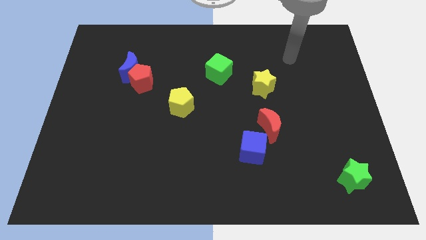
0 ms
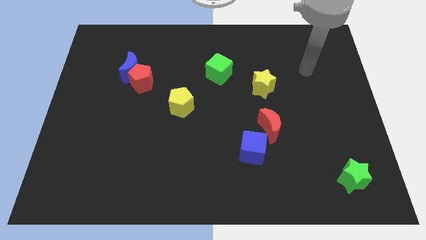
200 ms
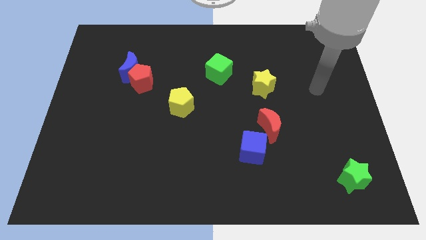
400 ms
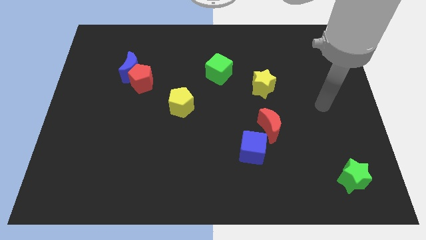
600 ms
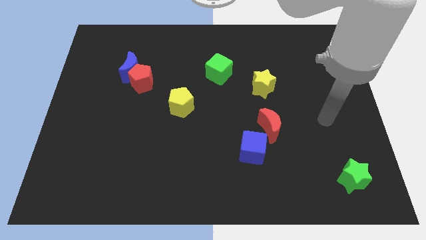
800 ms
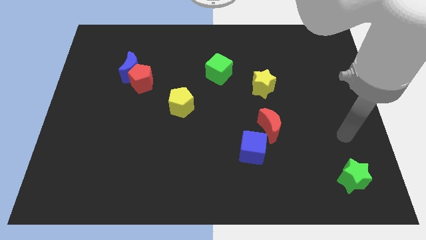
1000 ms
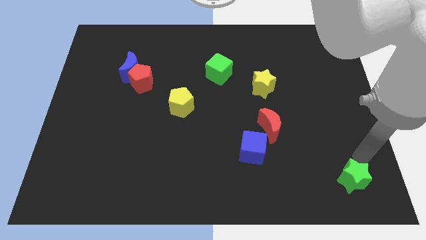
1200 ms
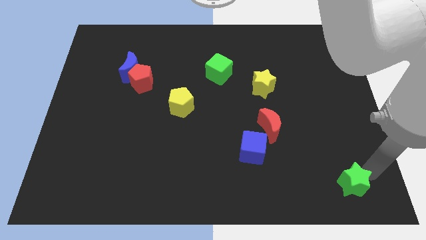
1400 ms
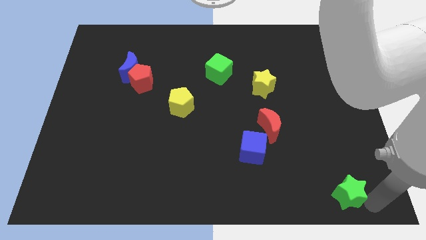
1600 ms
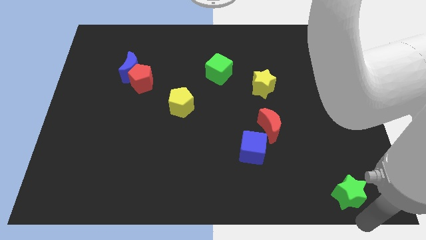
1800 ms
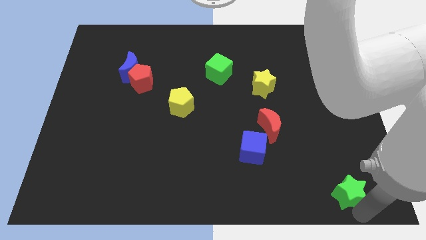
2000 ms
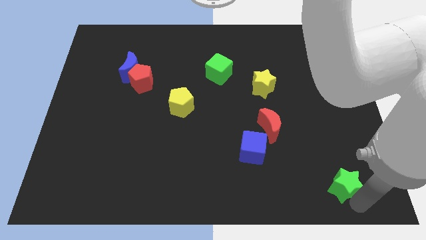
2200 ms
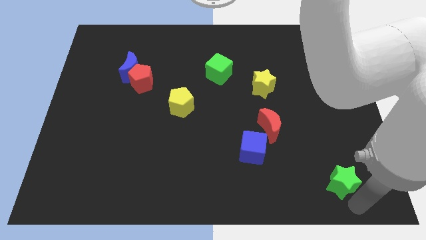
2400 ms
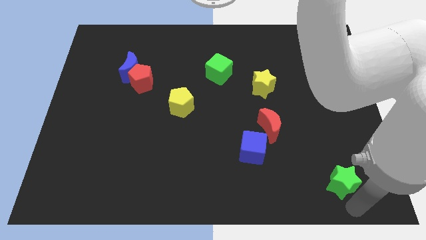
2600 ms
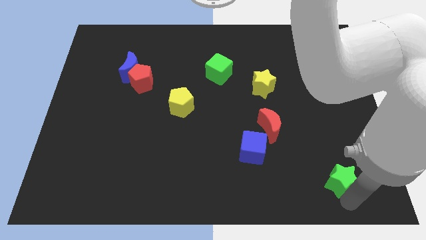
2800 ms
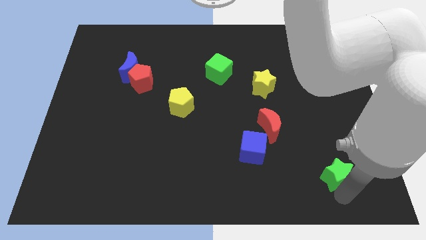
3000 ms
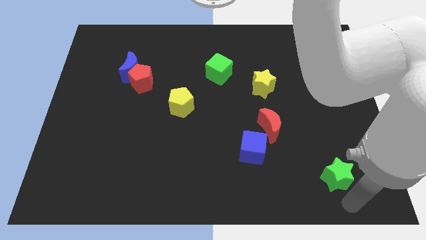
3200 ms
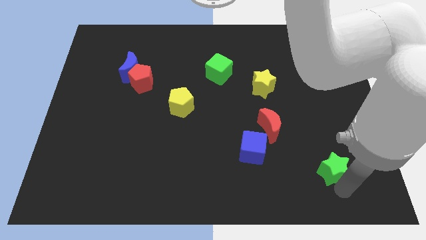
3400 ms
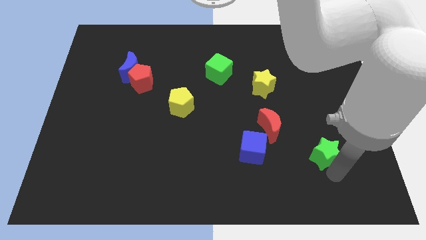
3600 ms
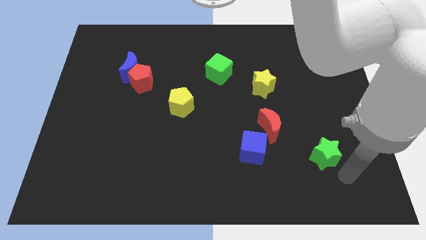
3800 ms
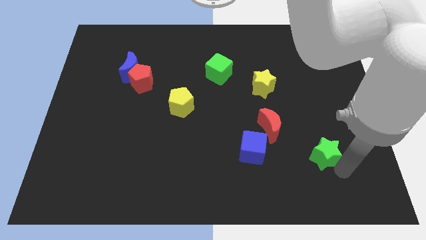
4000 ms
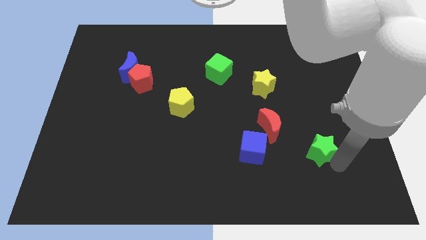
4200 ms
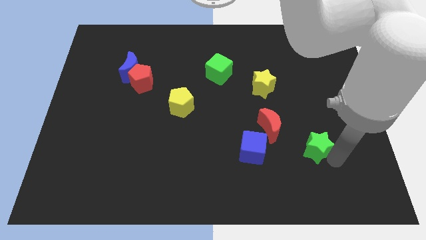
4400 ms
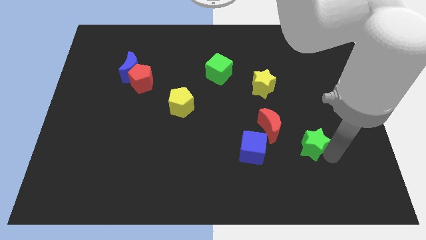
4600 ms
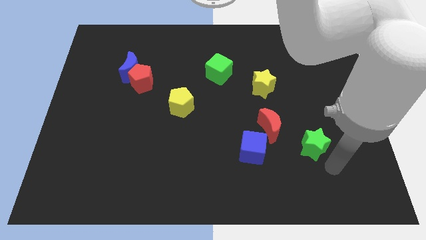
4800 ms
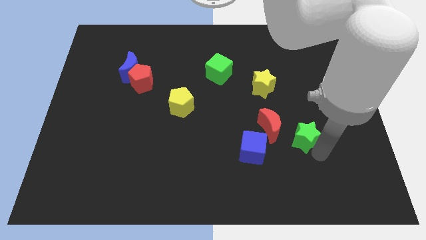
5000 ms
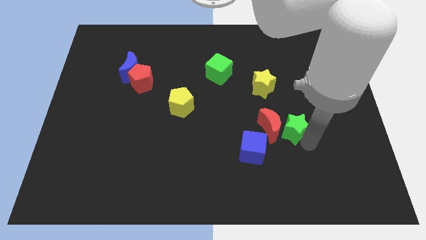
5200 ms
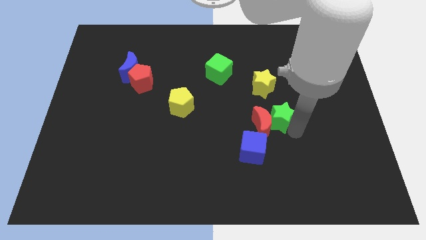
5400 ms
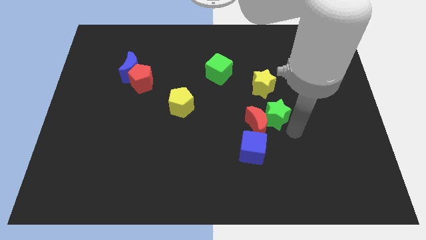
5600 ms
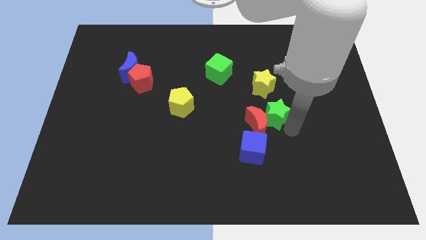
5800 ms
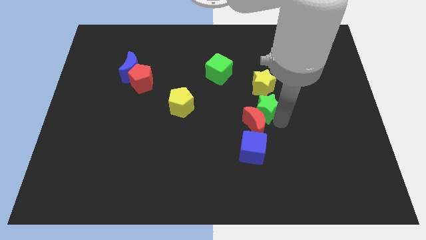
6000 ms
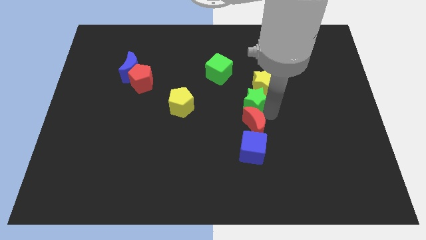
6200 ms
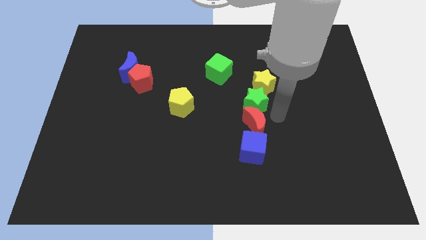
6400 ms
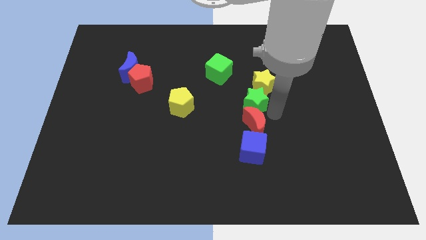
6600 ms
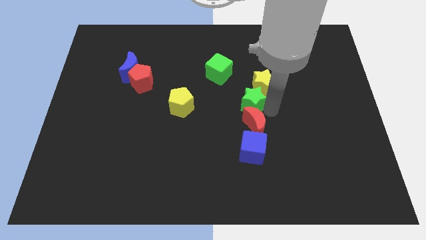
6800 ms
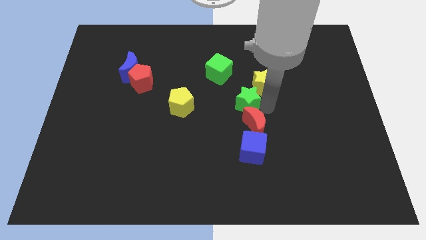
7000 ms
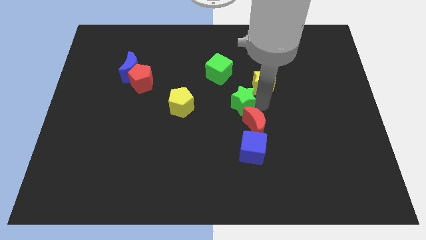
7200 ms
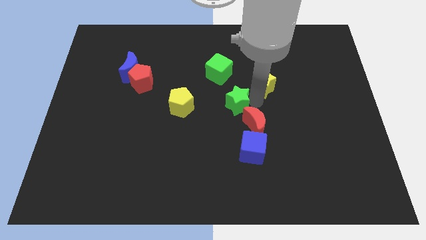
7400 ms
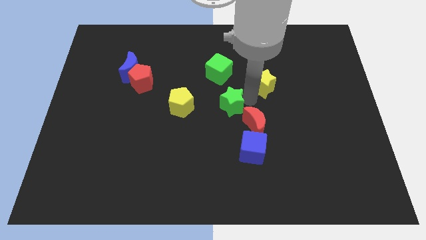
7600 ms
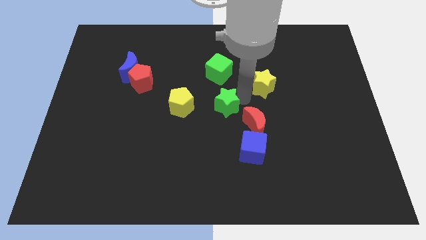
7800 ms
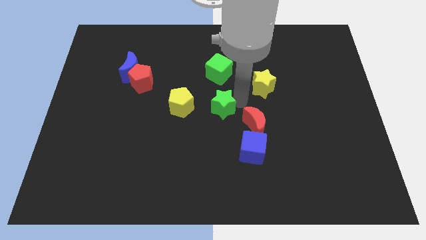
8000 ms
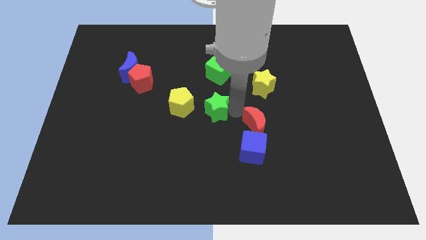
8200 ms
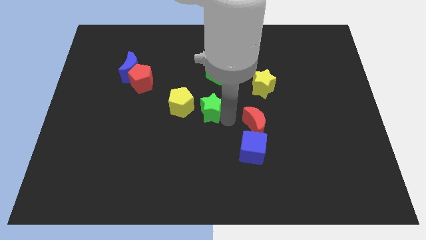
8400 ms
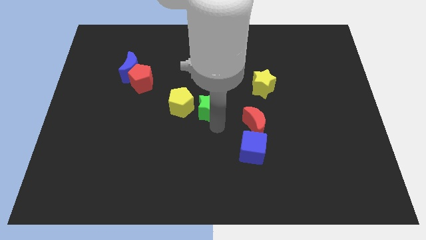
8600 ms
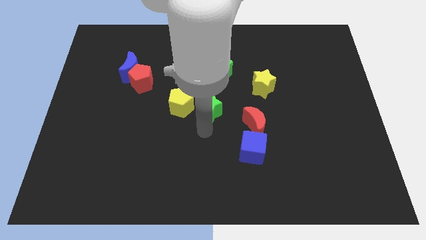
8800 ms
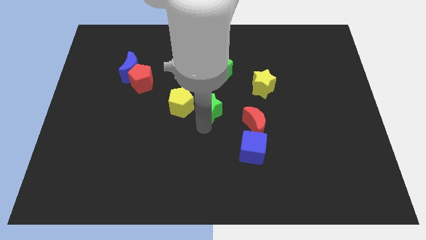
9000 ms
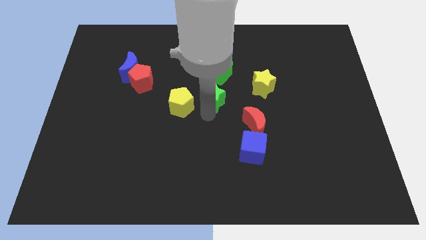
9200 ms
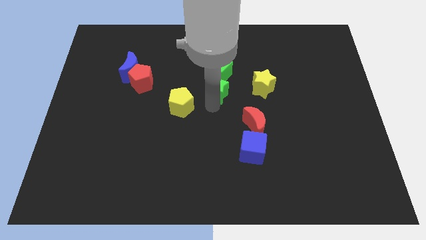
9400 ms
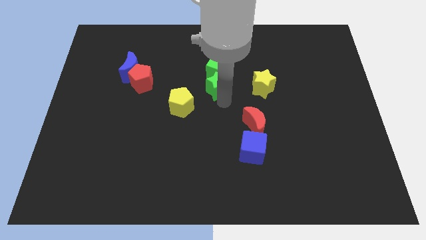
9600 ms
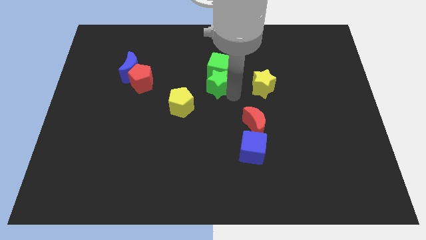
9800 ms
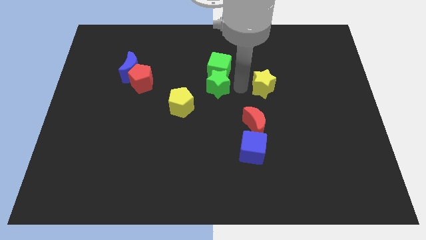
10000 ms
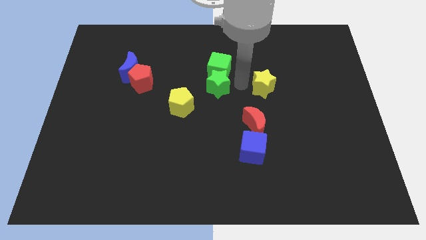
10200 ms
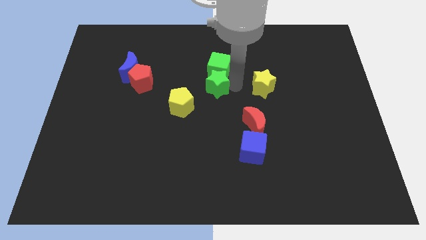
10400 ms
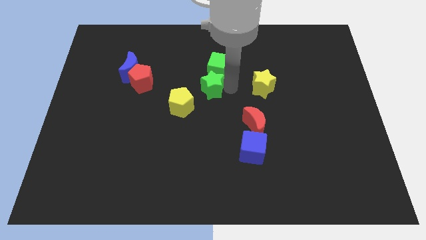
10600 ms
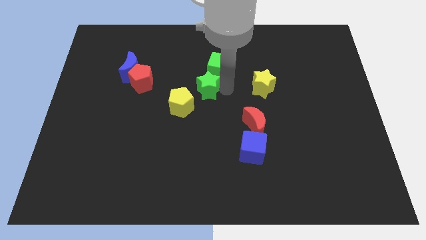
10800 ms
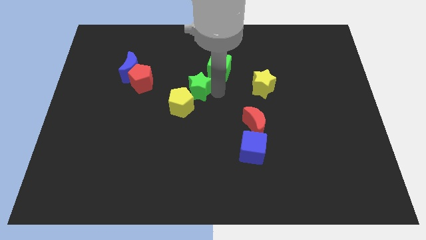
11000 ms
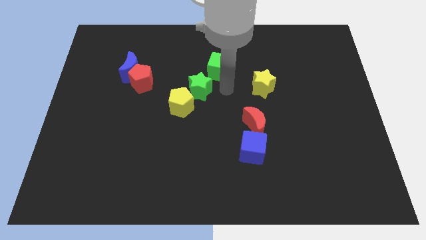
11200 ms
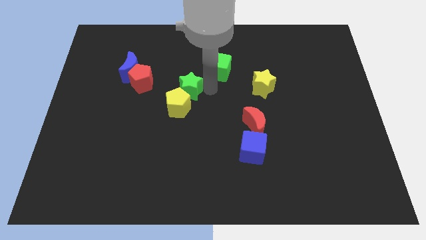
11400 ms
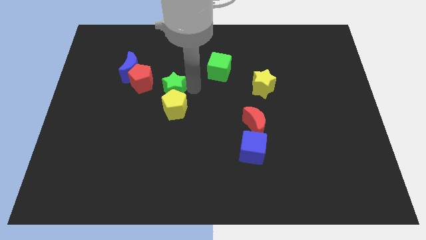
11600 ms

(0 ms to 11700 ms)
slide the green star to the top left of the yellow pentagon

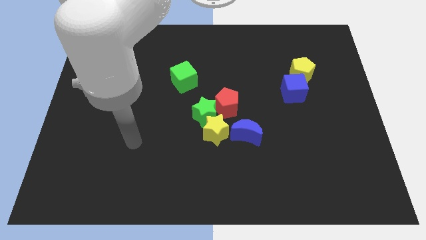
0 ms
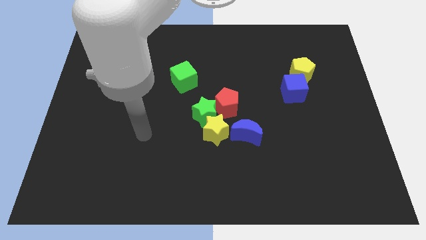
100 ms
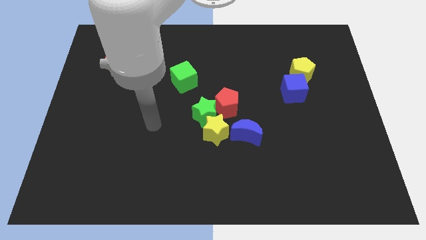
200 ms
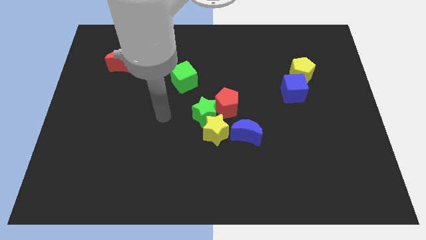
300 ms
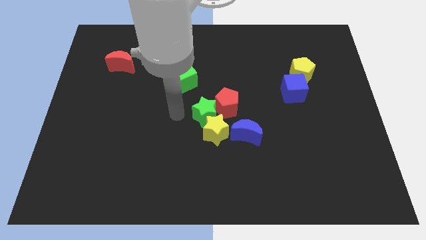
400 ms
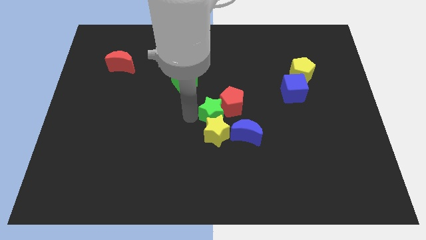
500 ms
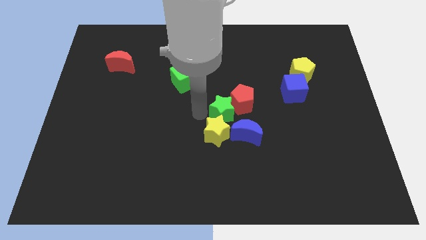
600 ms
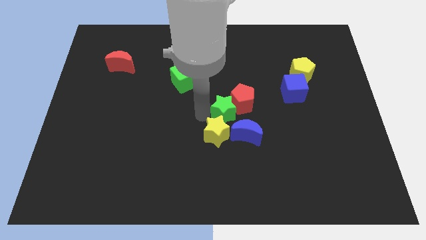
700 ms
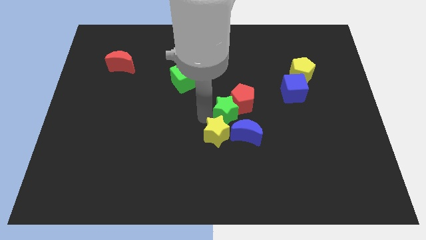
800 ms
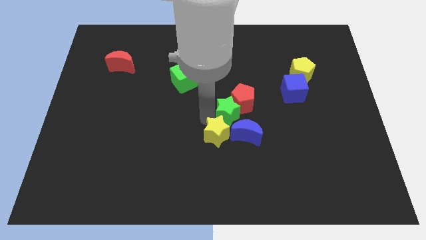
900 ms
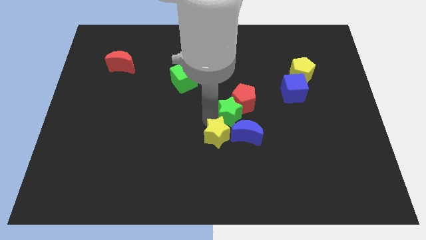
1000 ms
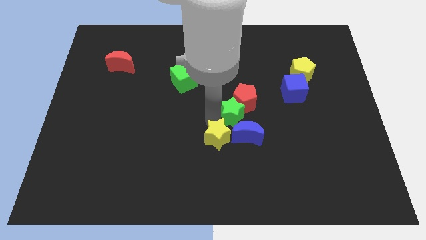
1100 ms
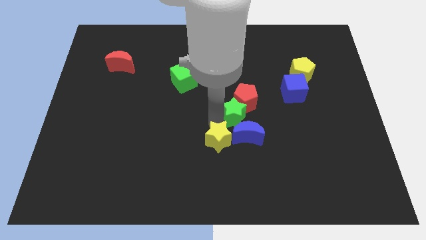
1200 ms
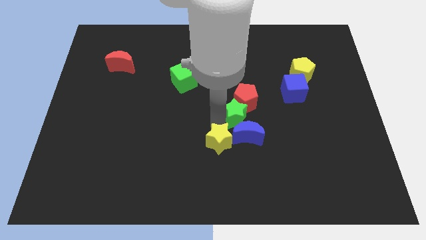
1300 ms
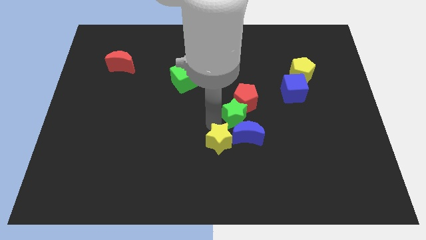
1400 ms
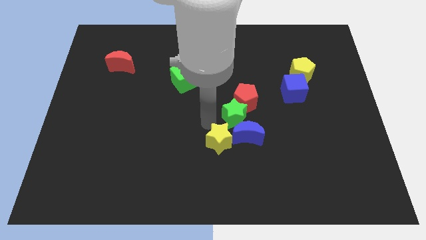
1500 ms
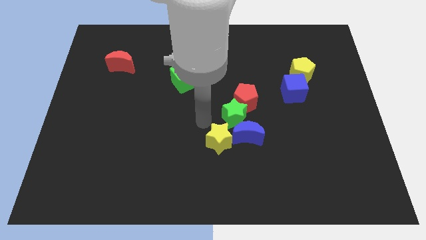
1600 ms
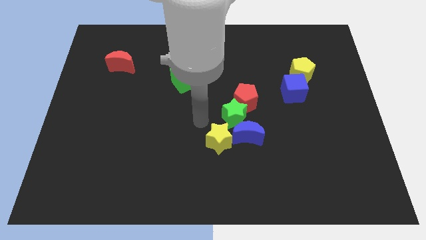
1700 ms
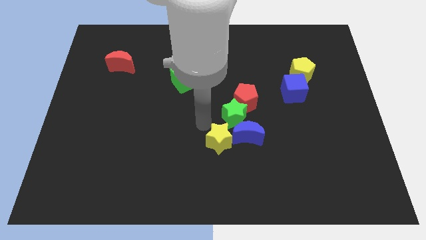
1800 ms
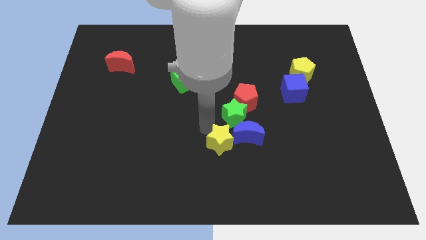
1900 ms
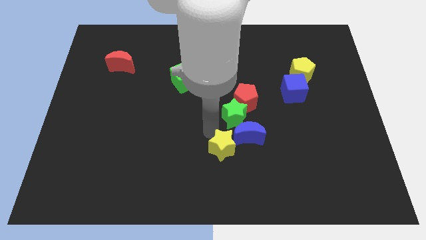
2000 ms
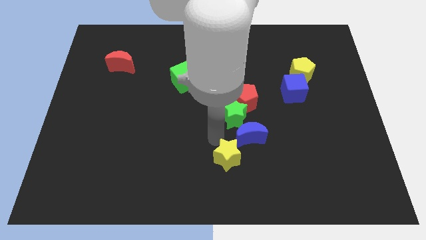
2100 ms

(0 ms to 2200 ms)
move the yellow star below the blue moon
